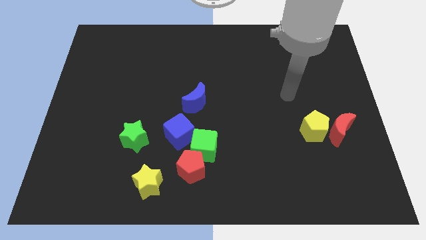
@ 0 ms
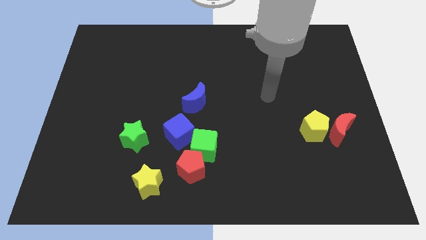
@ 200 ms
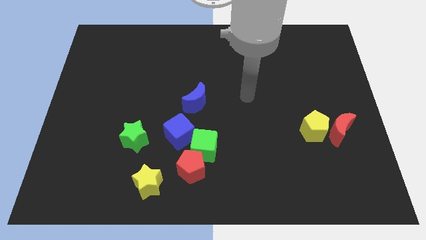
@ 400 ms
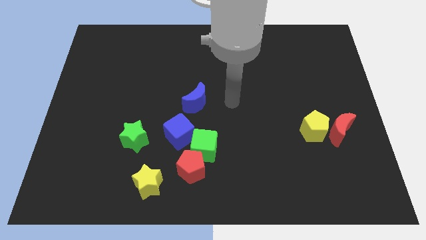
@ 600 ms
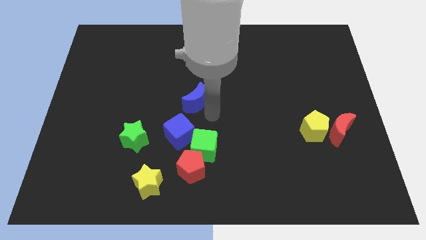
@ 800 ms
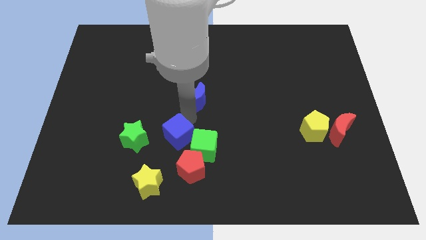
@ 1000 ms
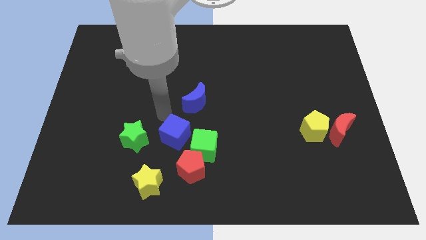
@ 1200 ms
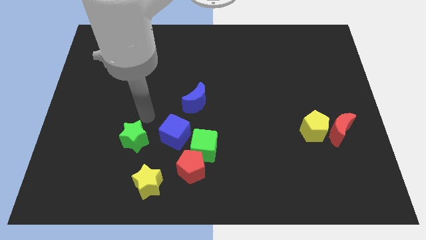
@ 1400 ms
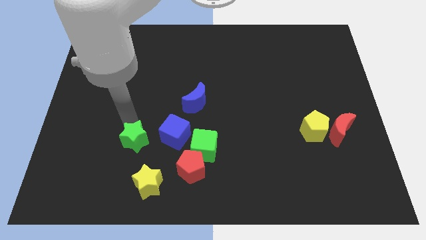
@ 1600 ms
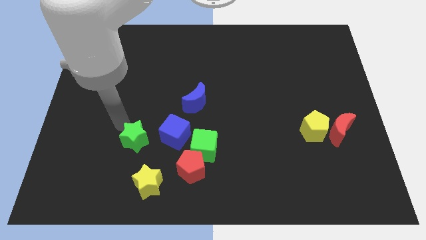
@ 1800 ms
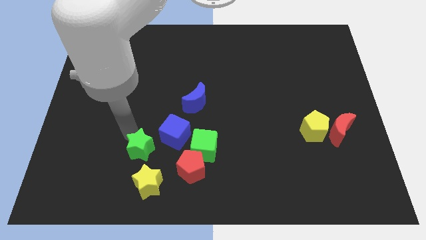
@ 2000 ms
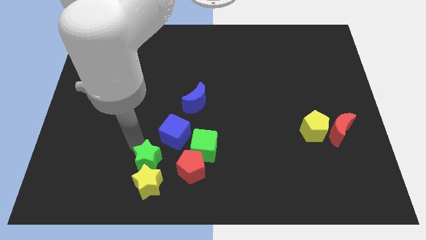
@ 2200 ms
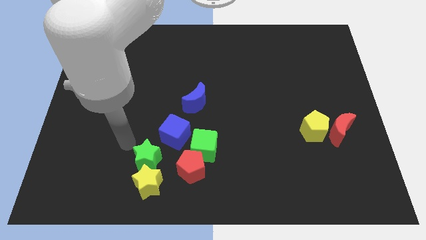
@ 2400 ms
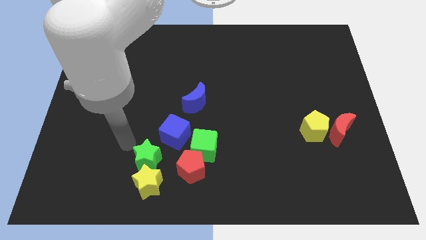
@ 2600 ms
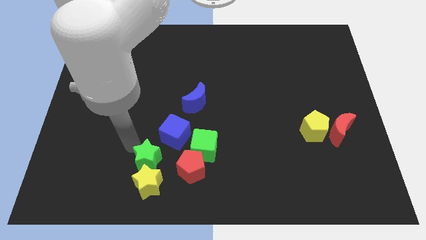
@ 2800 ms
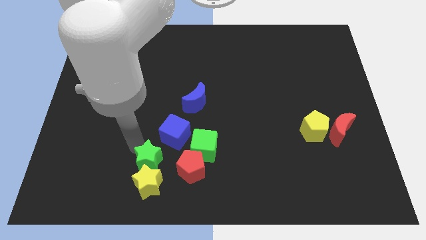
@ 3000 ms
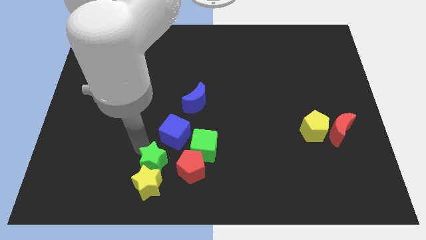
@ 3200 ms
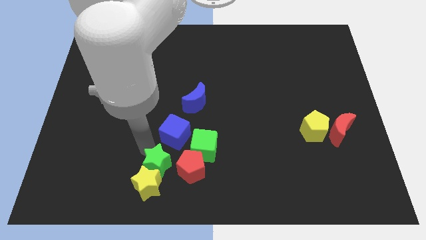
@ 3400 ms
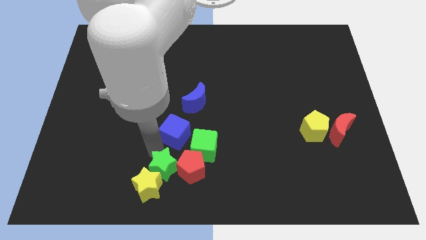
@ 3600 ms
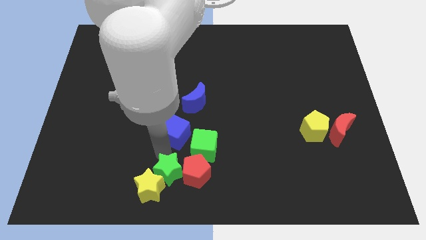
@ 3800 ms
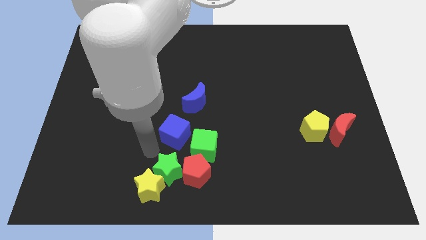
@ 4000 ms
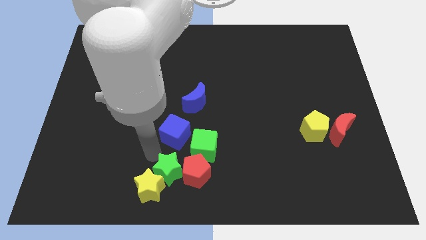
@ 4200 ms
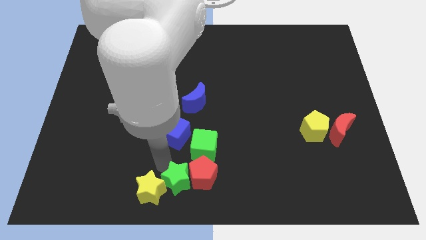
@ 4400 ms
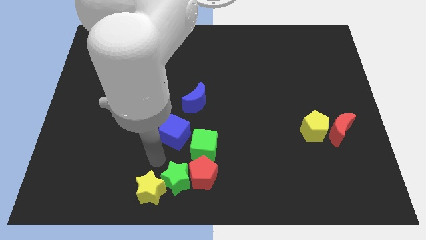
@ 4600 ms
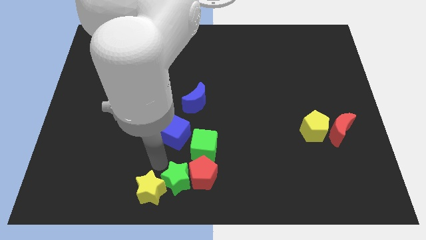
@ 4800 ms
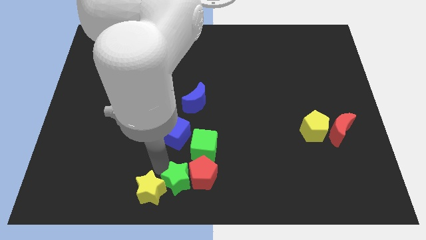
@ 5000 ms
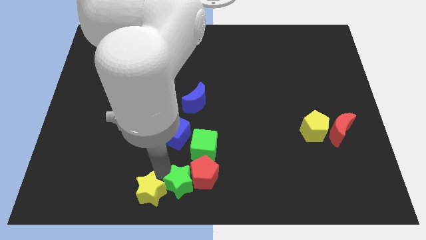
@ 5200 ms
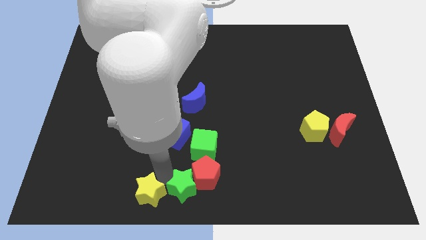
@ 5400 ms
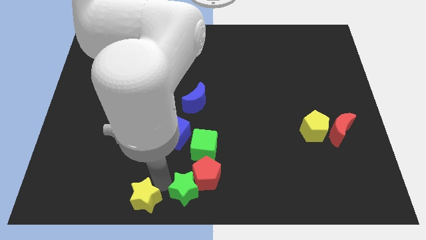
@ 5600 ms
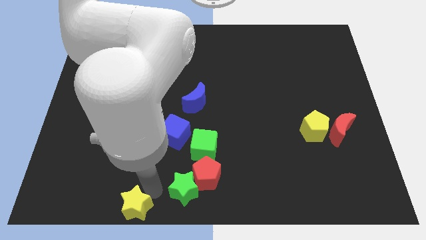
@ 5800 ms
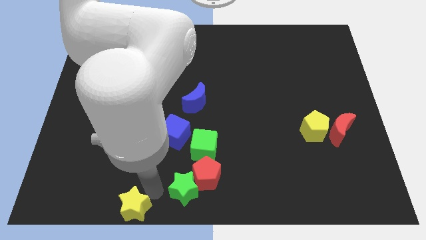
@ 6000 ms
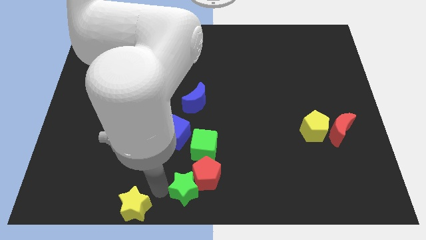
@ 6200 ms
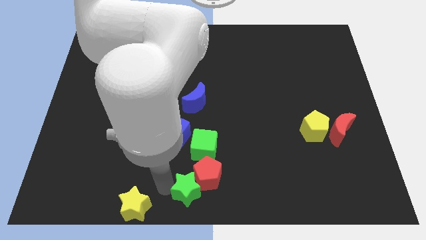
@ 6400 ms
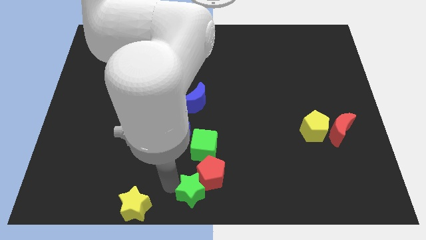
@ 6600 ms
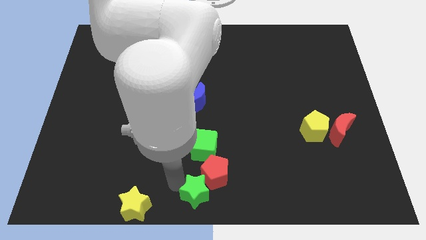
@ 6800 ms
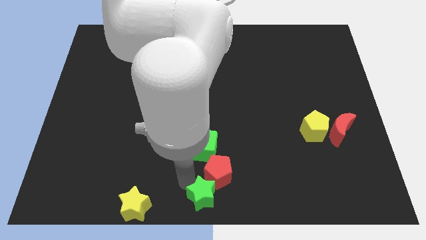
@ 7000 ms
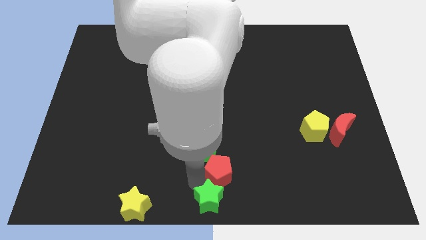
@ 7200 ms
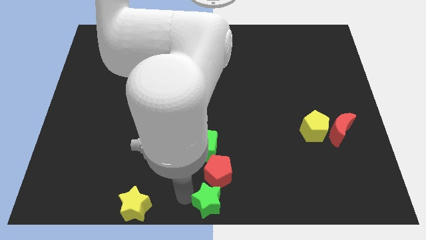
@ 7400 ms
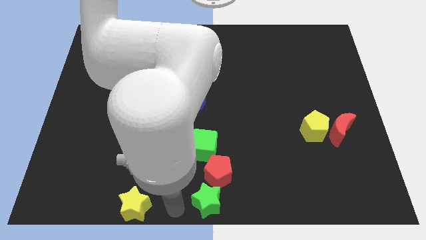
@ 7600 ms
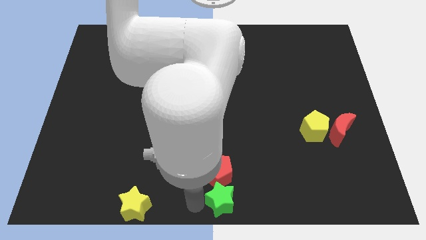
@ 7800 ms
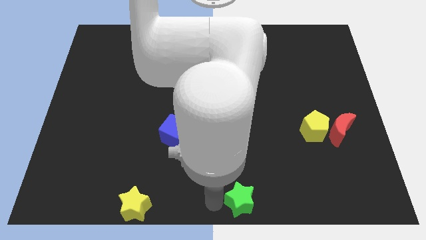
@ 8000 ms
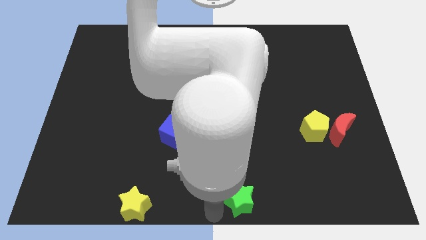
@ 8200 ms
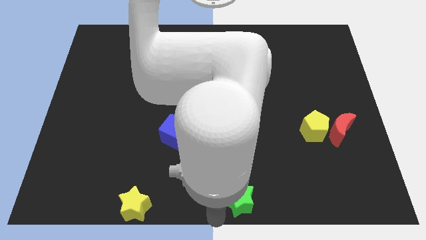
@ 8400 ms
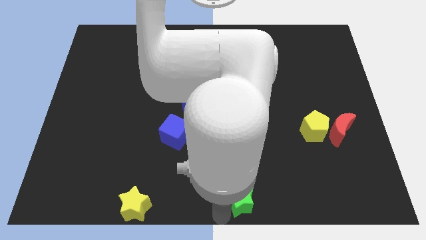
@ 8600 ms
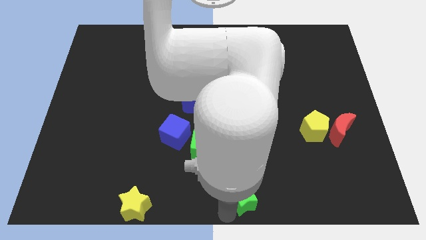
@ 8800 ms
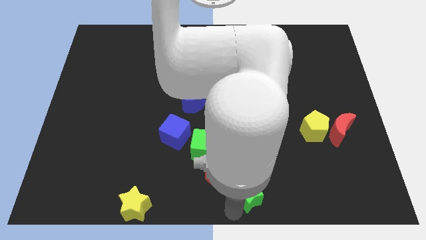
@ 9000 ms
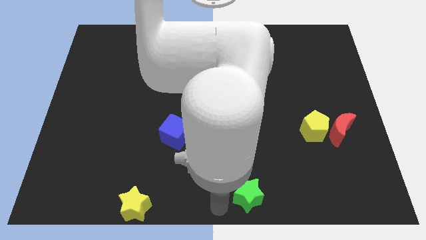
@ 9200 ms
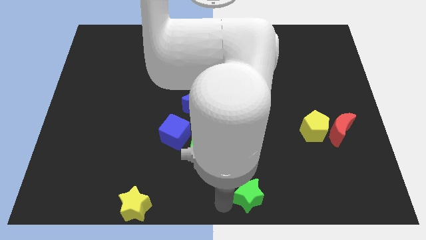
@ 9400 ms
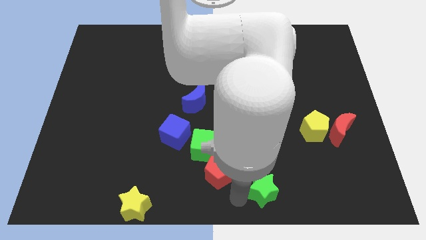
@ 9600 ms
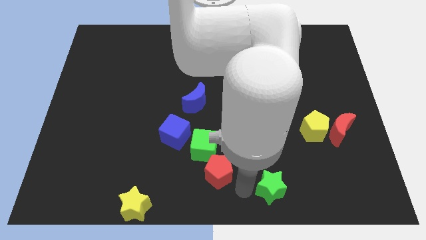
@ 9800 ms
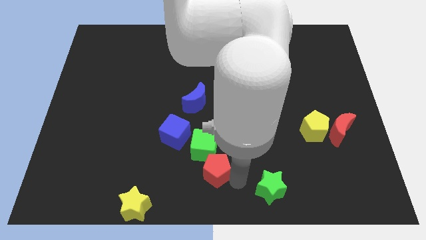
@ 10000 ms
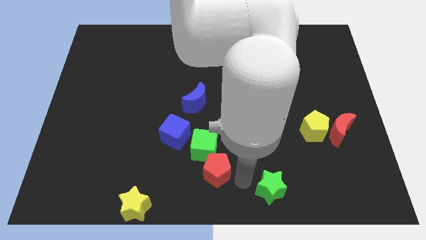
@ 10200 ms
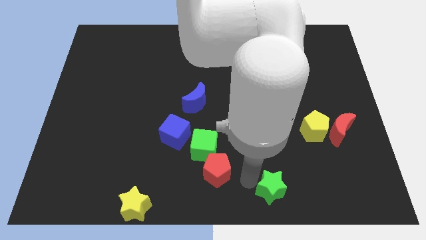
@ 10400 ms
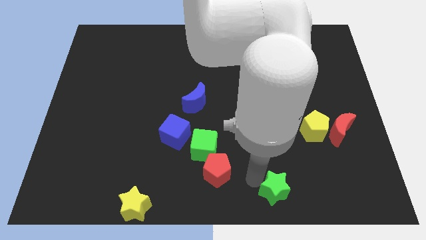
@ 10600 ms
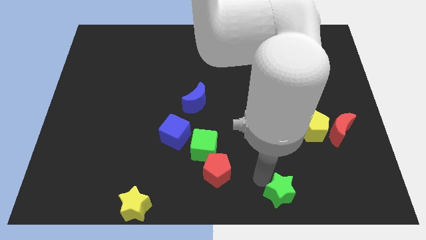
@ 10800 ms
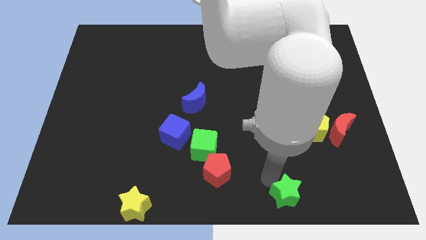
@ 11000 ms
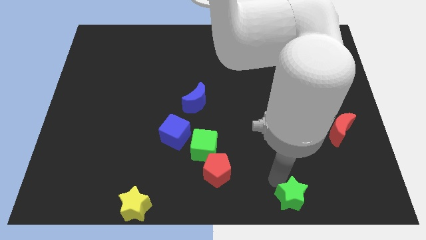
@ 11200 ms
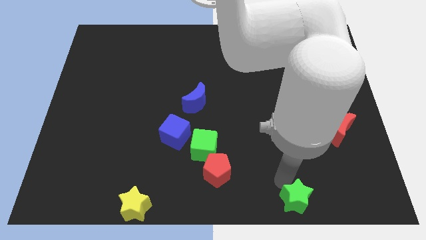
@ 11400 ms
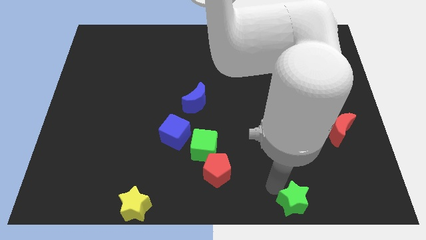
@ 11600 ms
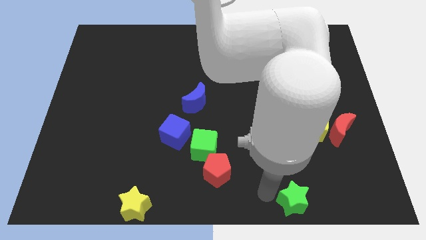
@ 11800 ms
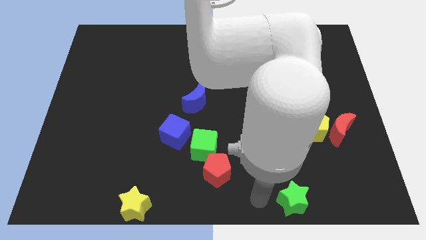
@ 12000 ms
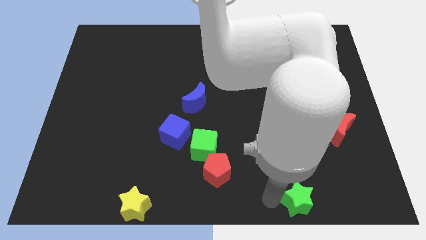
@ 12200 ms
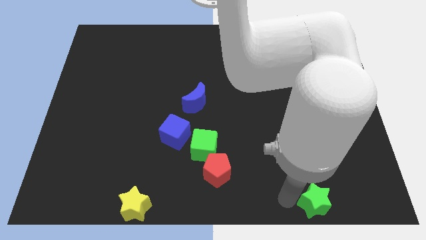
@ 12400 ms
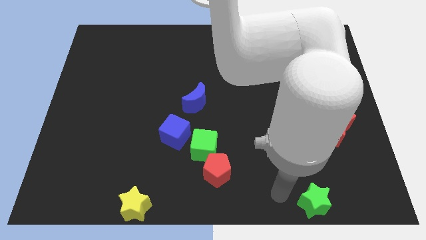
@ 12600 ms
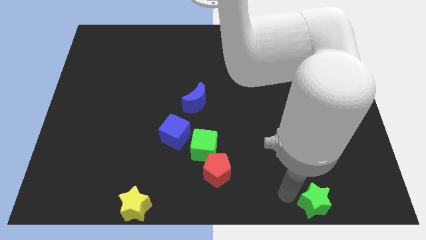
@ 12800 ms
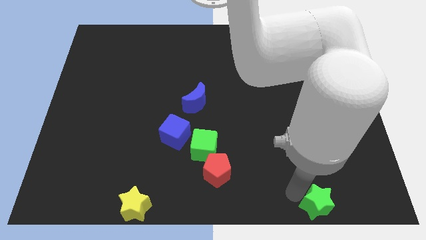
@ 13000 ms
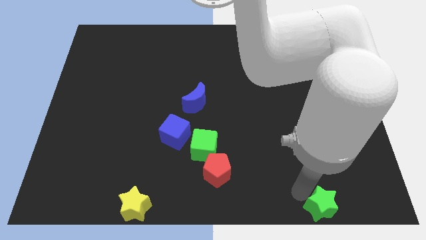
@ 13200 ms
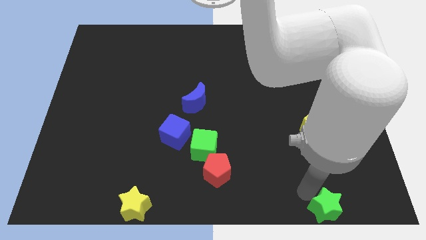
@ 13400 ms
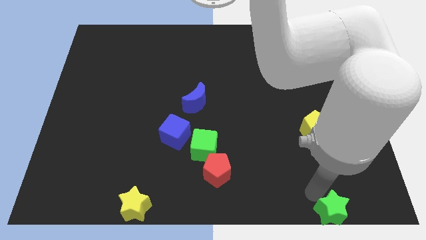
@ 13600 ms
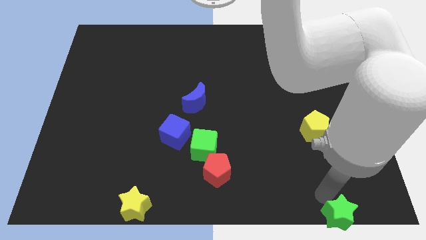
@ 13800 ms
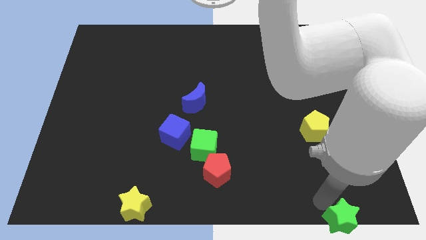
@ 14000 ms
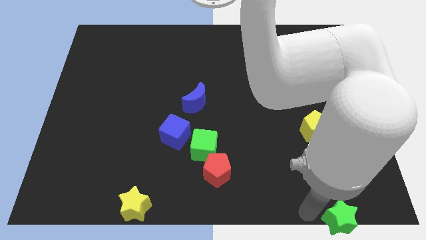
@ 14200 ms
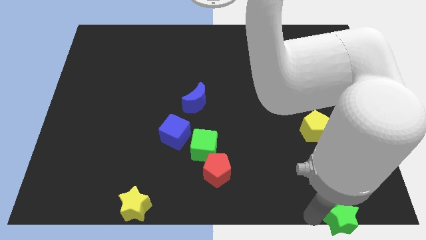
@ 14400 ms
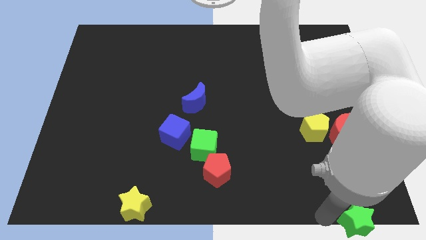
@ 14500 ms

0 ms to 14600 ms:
move the green star to the bottom right of the board

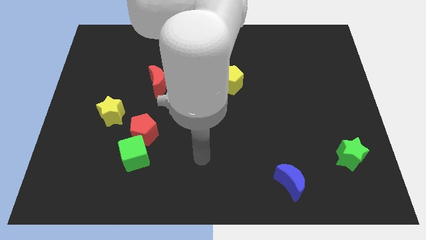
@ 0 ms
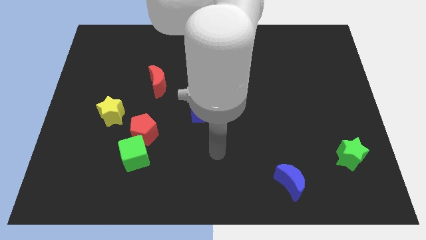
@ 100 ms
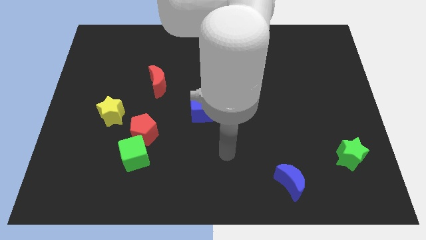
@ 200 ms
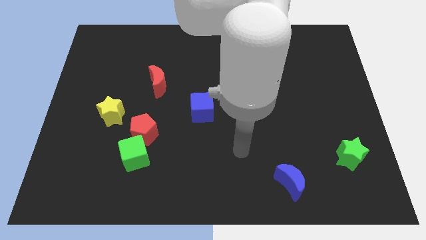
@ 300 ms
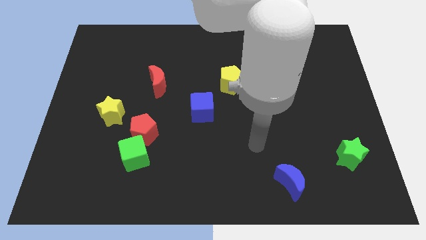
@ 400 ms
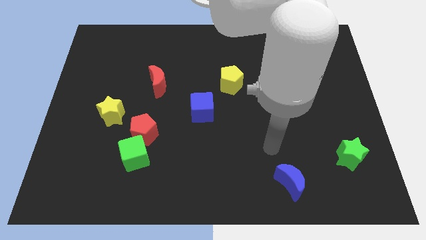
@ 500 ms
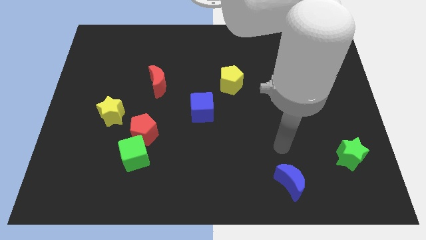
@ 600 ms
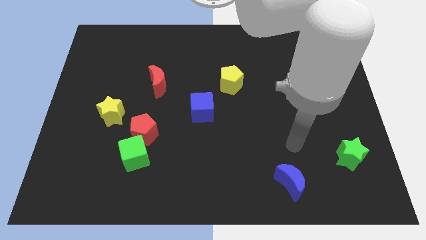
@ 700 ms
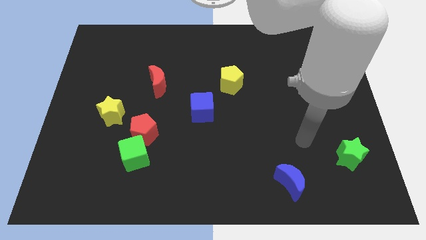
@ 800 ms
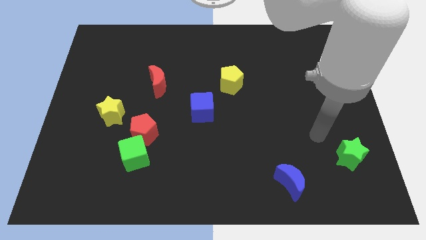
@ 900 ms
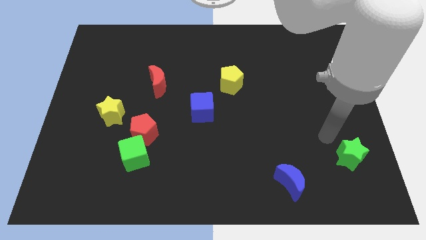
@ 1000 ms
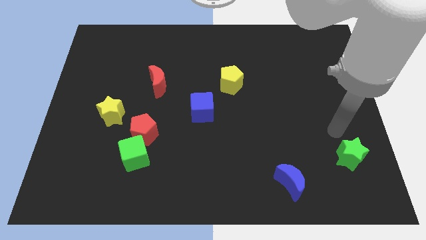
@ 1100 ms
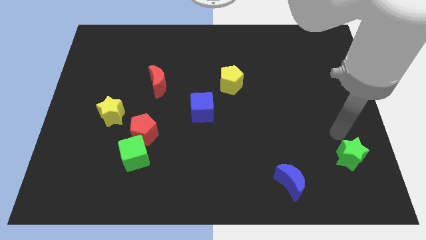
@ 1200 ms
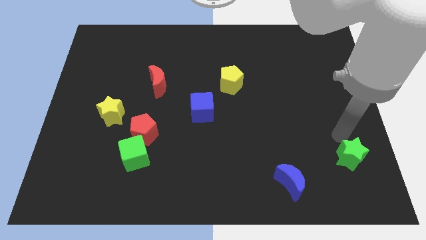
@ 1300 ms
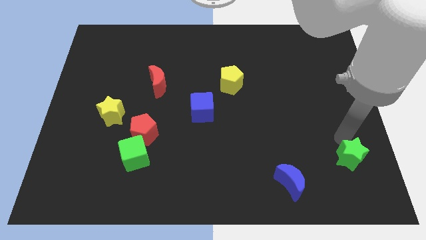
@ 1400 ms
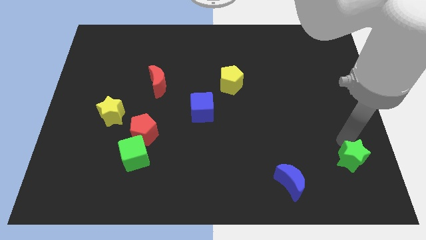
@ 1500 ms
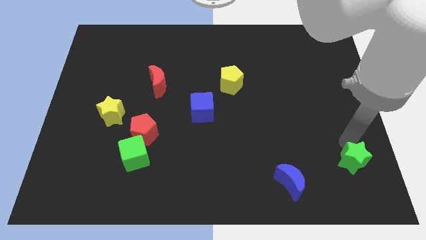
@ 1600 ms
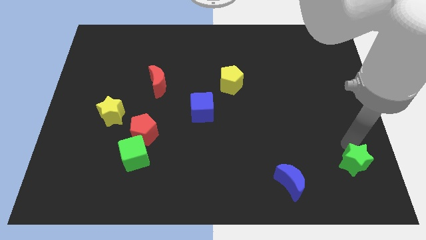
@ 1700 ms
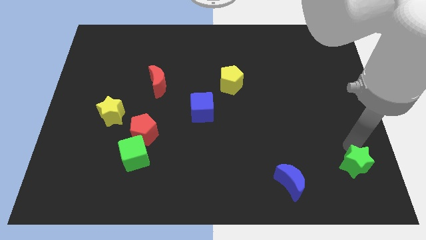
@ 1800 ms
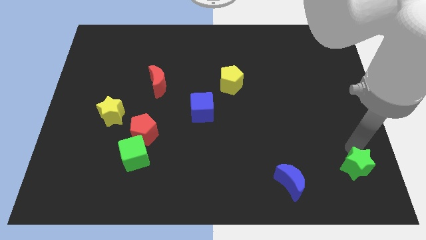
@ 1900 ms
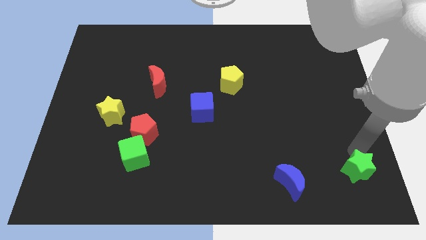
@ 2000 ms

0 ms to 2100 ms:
put the green star to the lower right corner
